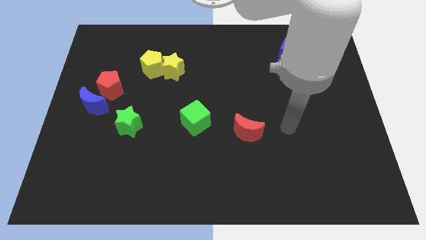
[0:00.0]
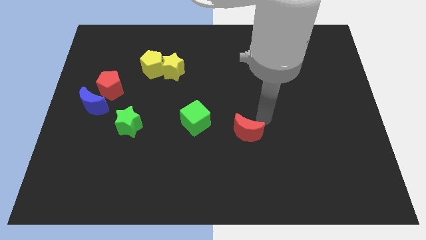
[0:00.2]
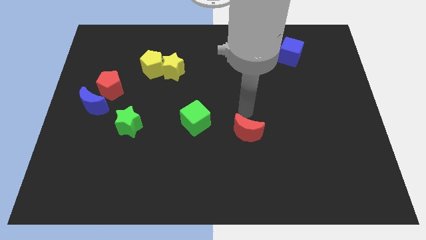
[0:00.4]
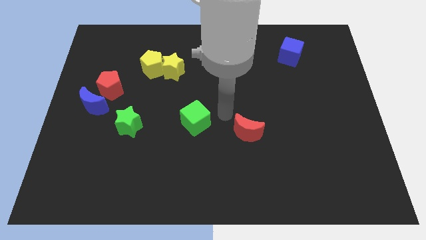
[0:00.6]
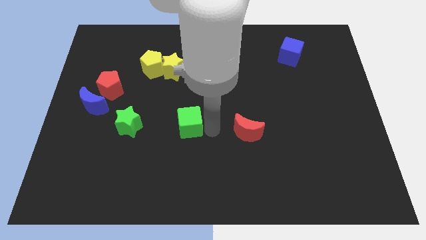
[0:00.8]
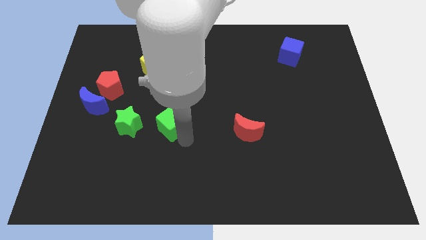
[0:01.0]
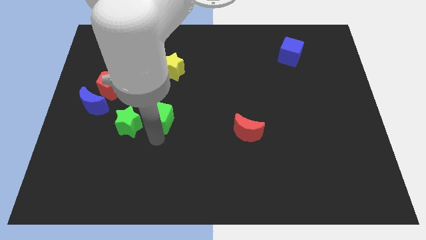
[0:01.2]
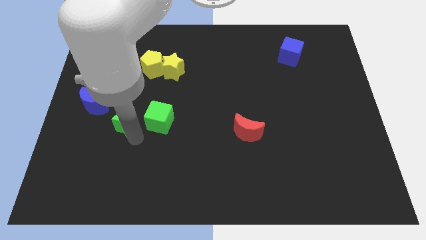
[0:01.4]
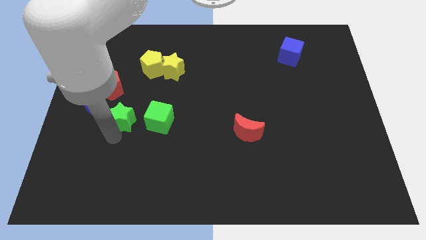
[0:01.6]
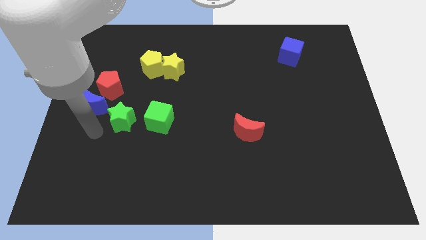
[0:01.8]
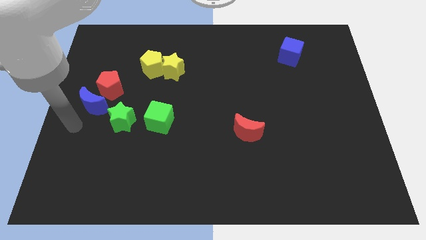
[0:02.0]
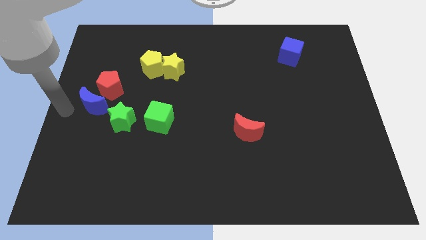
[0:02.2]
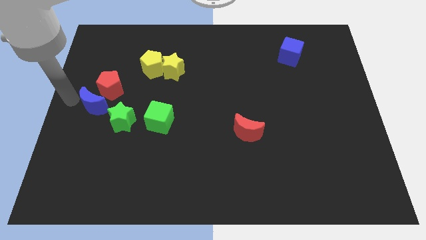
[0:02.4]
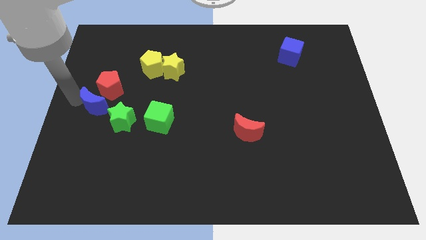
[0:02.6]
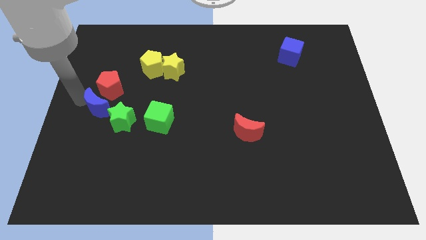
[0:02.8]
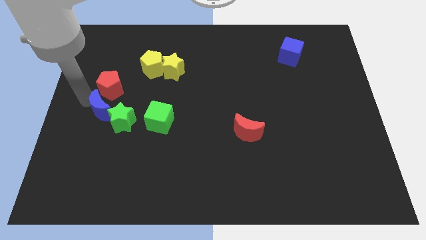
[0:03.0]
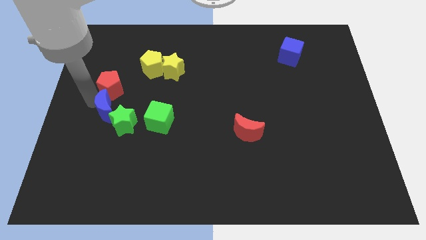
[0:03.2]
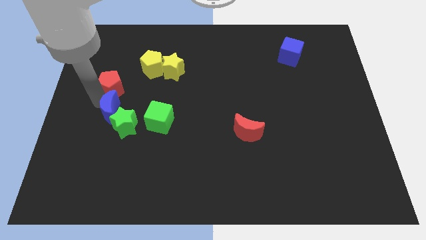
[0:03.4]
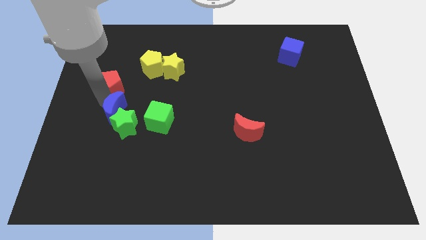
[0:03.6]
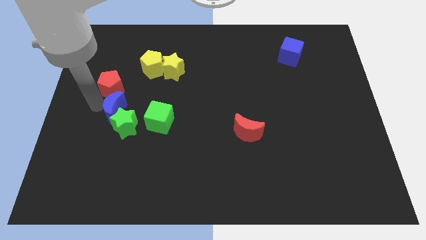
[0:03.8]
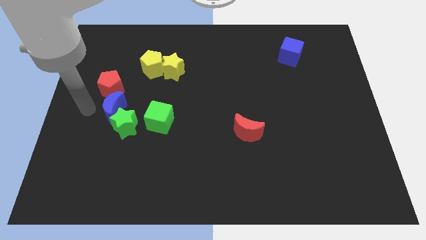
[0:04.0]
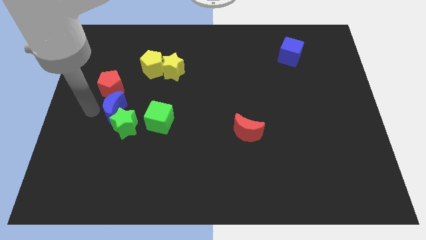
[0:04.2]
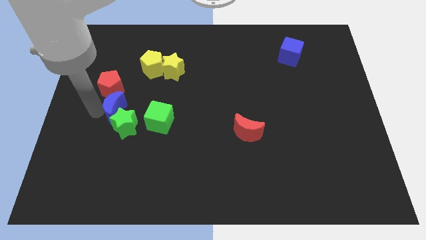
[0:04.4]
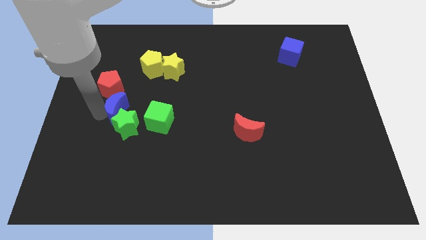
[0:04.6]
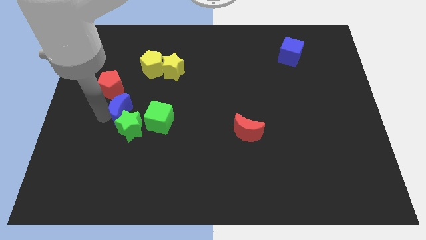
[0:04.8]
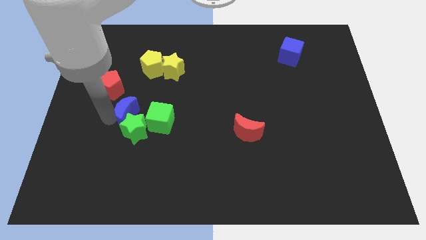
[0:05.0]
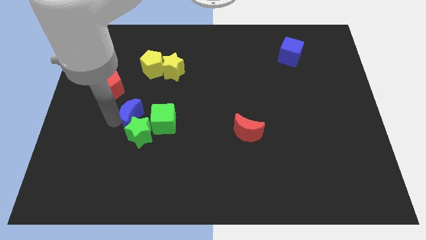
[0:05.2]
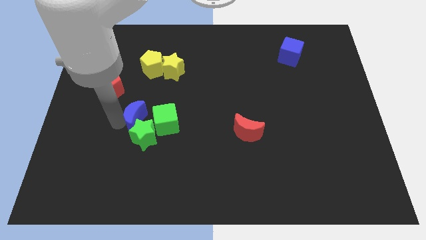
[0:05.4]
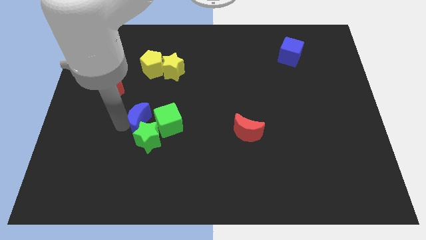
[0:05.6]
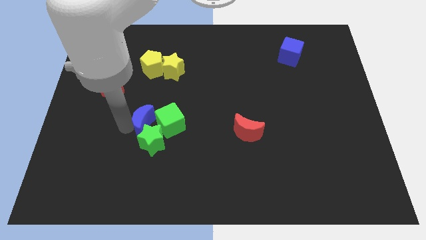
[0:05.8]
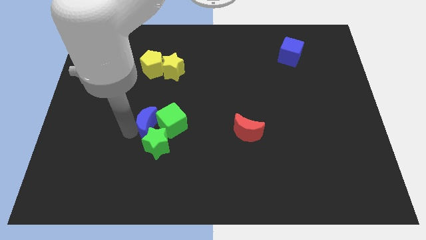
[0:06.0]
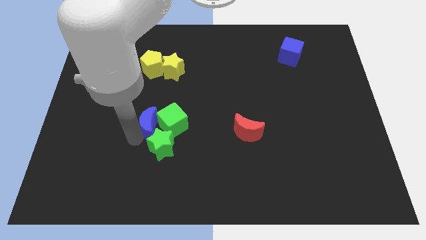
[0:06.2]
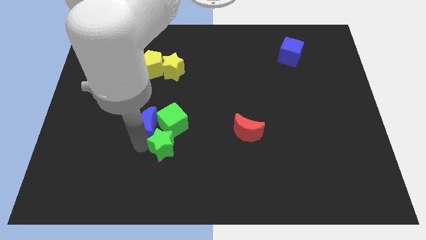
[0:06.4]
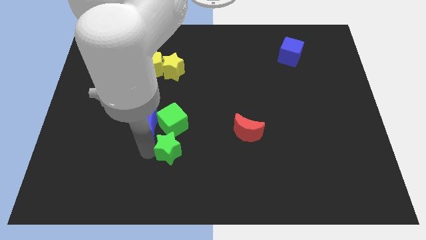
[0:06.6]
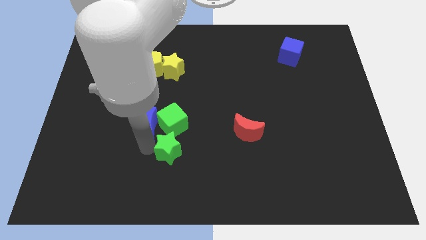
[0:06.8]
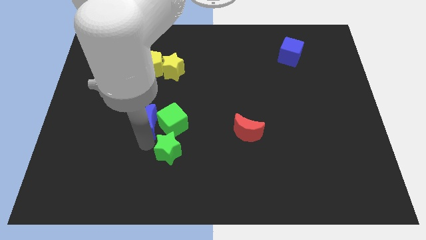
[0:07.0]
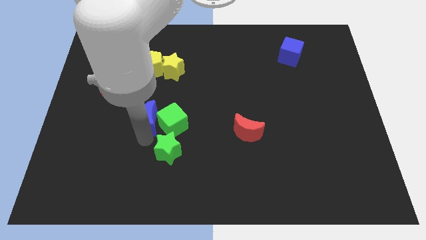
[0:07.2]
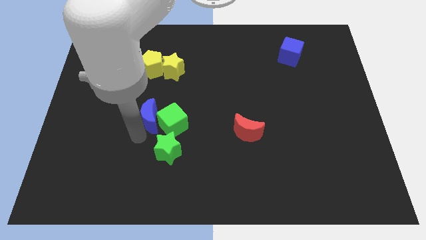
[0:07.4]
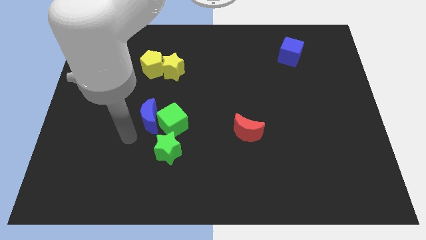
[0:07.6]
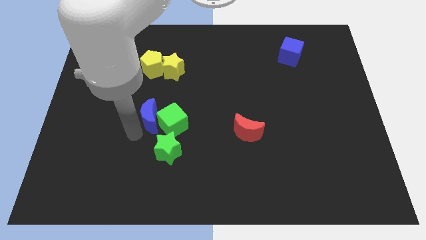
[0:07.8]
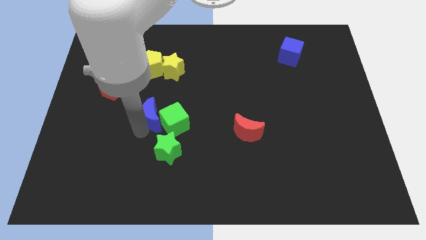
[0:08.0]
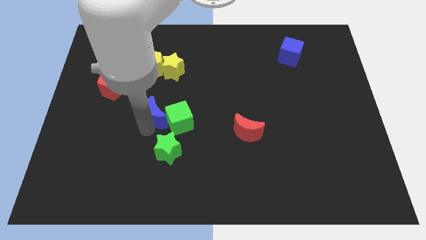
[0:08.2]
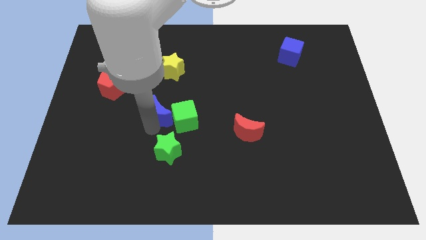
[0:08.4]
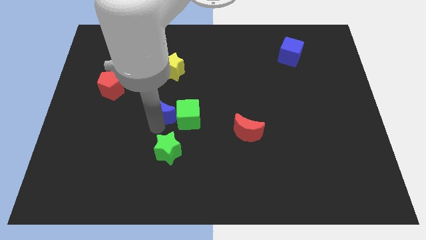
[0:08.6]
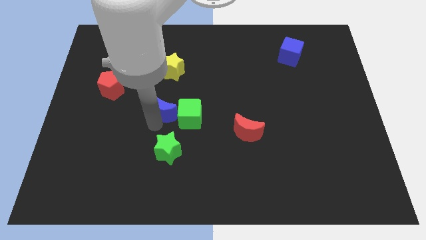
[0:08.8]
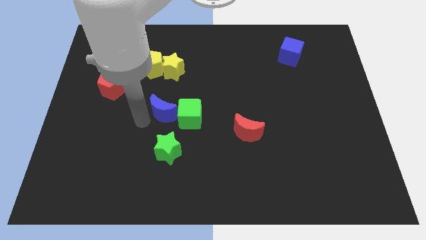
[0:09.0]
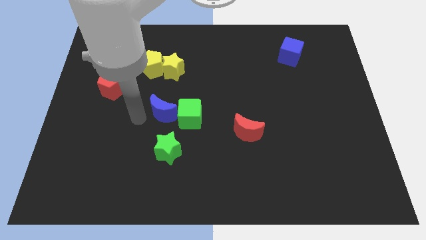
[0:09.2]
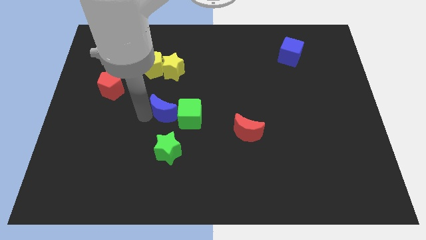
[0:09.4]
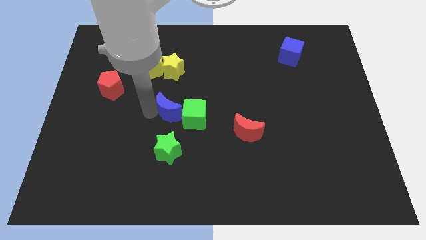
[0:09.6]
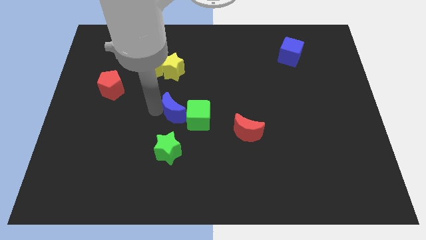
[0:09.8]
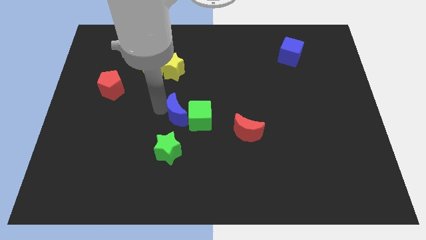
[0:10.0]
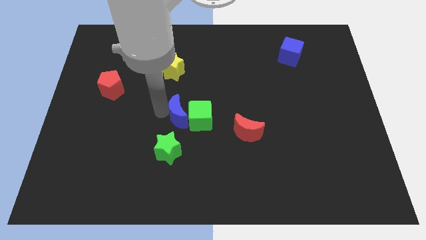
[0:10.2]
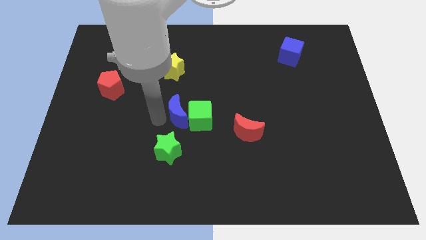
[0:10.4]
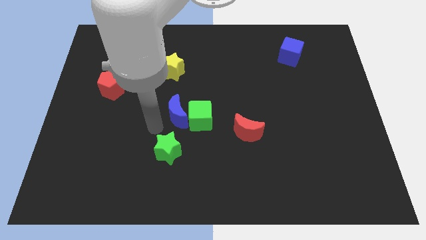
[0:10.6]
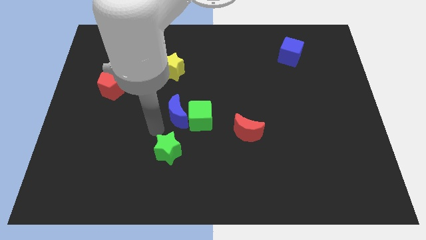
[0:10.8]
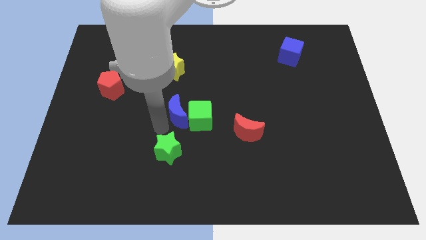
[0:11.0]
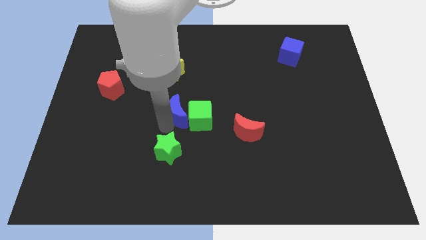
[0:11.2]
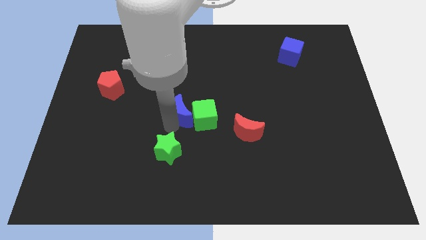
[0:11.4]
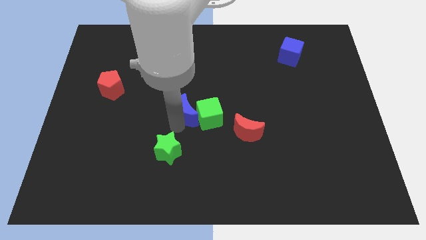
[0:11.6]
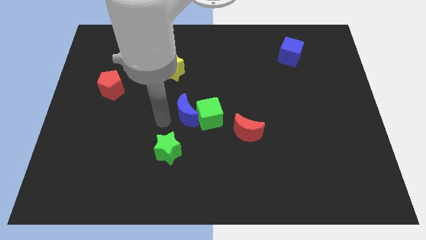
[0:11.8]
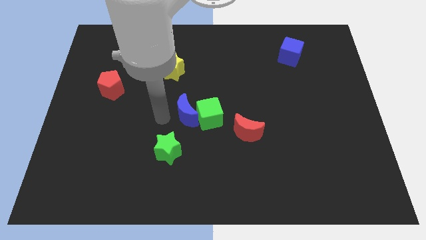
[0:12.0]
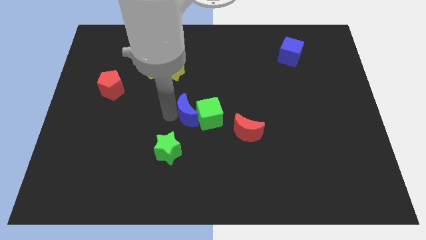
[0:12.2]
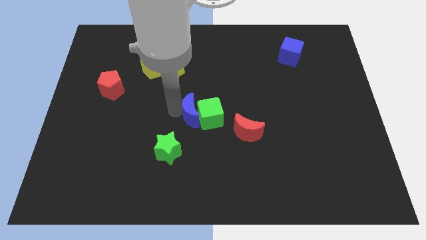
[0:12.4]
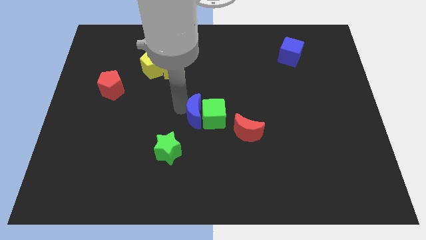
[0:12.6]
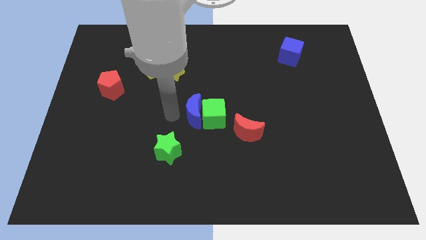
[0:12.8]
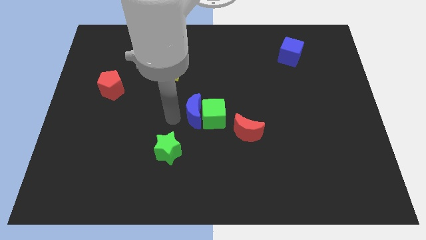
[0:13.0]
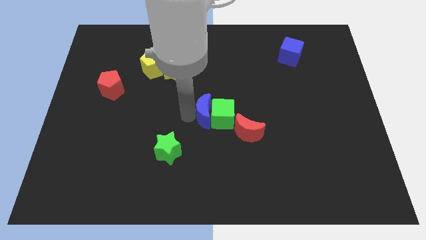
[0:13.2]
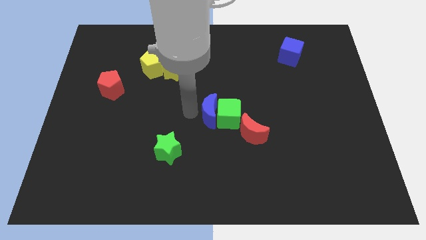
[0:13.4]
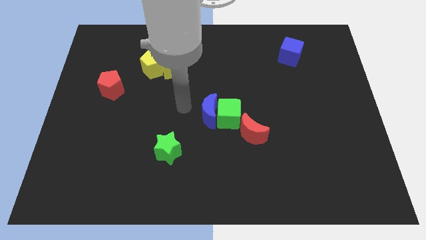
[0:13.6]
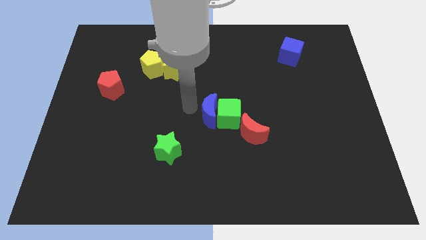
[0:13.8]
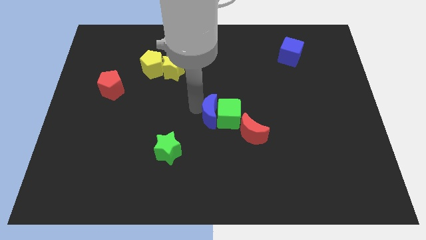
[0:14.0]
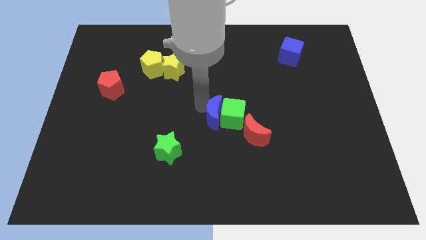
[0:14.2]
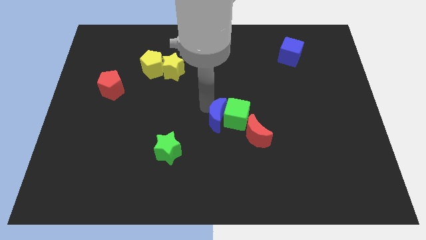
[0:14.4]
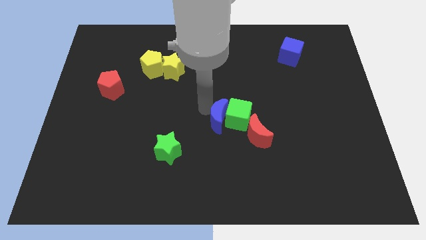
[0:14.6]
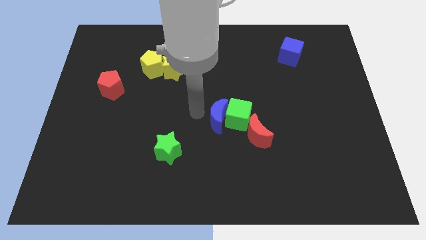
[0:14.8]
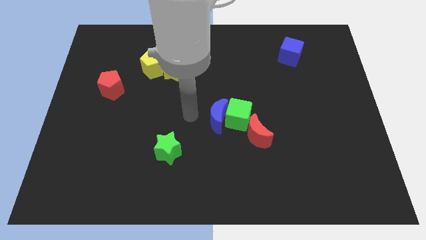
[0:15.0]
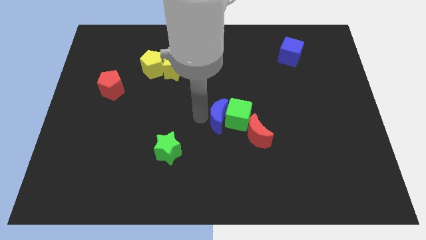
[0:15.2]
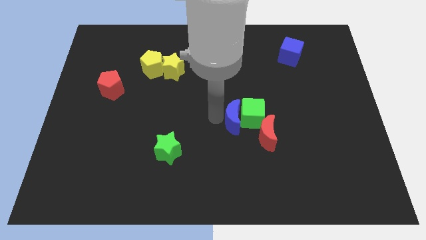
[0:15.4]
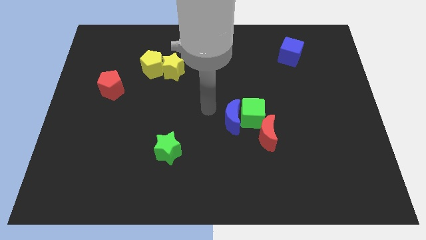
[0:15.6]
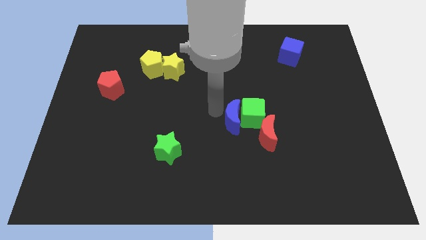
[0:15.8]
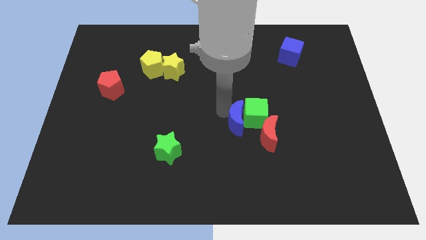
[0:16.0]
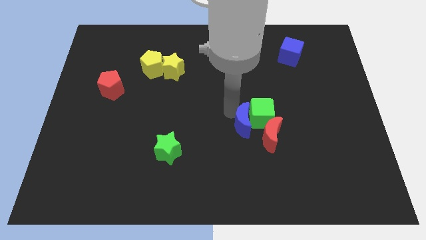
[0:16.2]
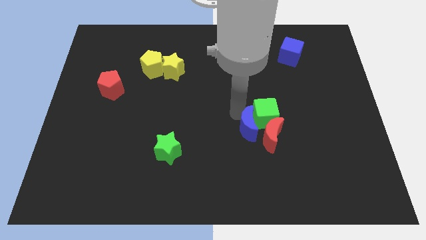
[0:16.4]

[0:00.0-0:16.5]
slide the blue moon close to the red moon
